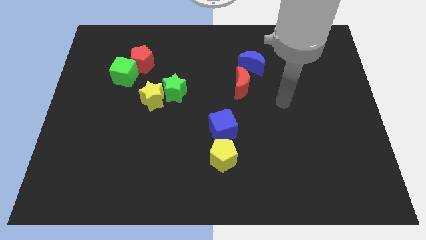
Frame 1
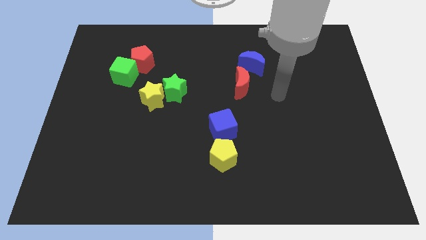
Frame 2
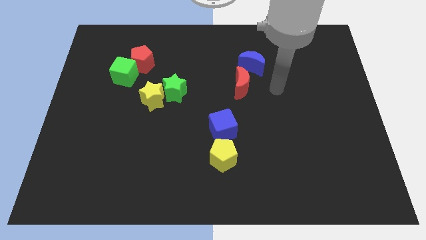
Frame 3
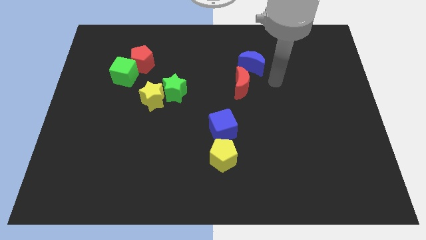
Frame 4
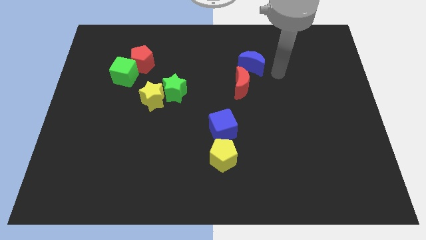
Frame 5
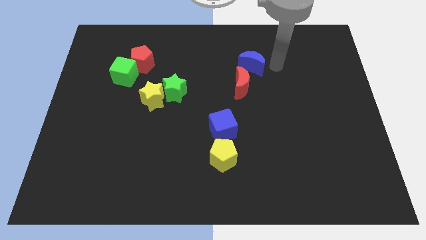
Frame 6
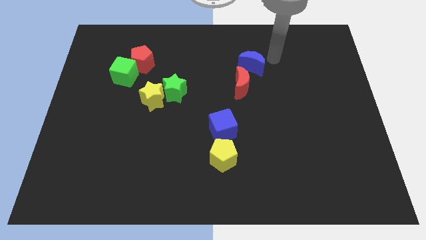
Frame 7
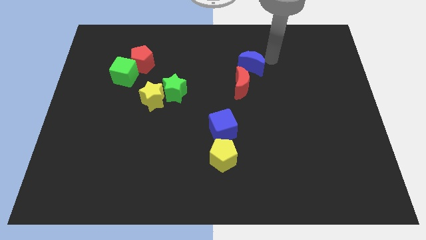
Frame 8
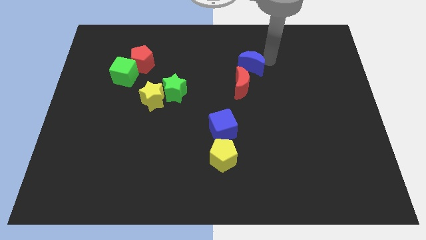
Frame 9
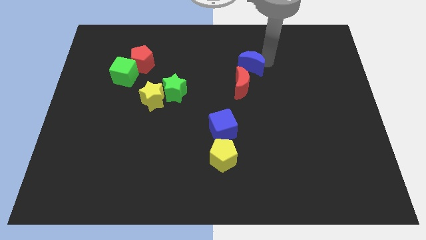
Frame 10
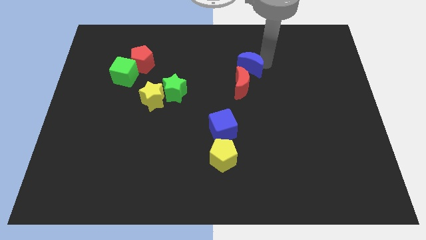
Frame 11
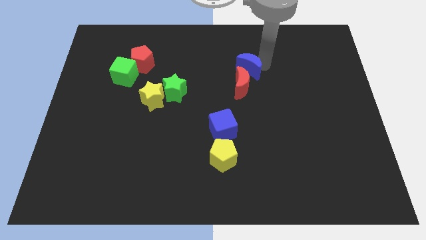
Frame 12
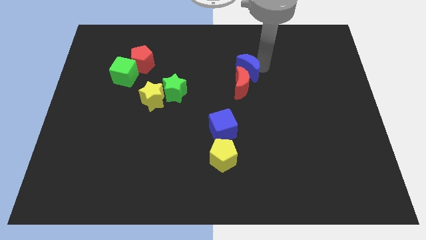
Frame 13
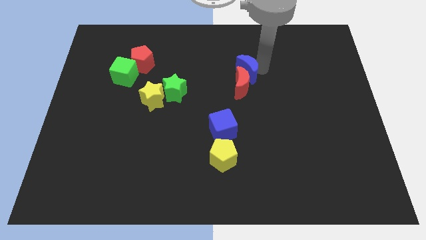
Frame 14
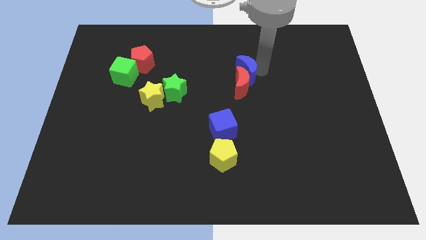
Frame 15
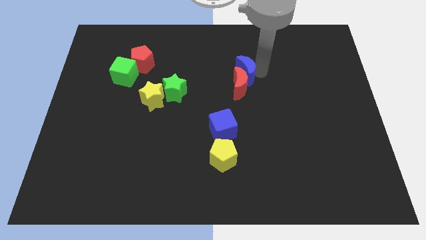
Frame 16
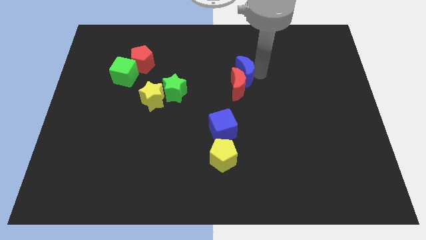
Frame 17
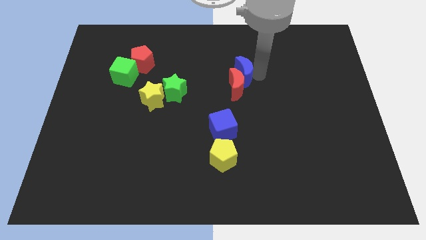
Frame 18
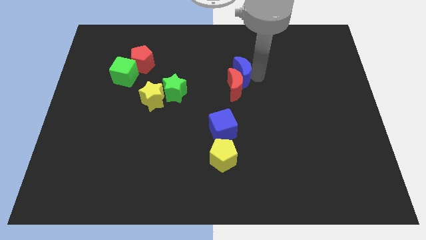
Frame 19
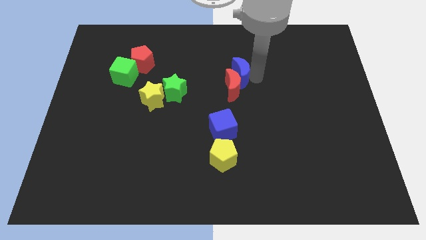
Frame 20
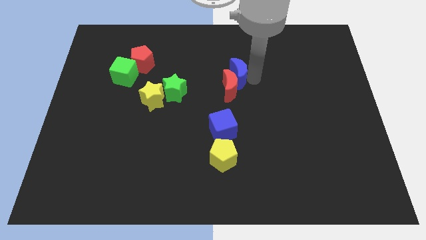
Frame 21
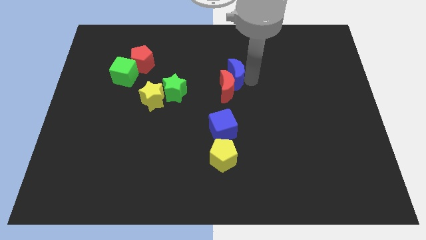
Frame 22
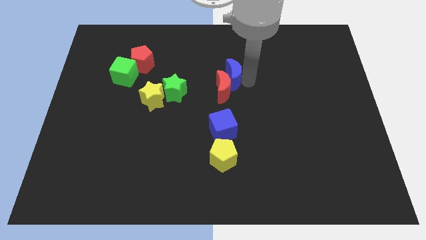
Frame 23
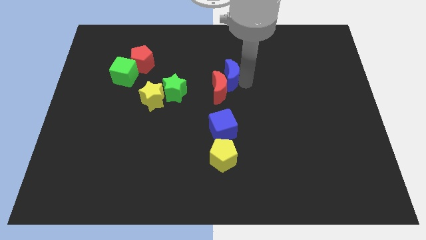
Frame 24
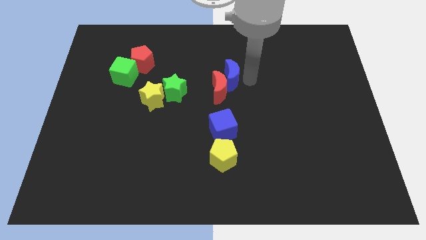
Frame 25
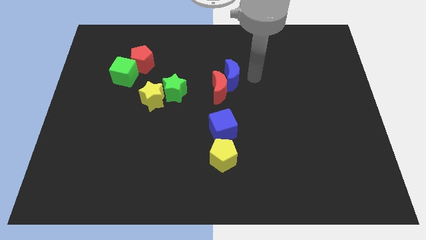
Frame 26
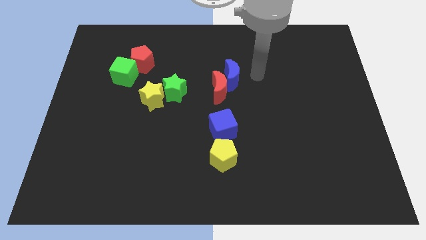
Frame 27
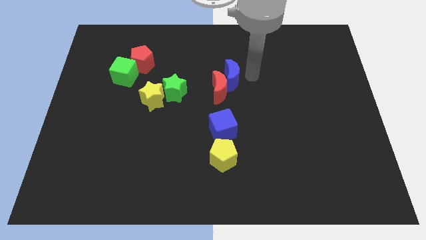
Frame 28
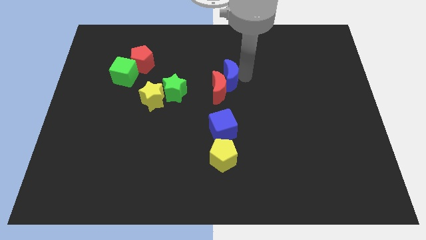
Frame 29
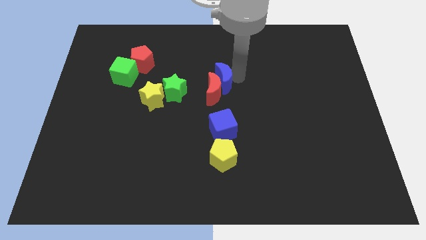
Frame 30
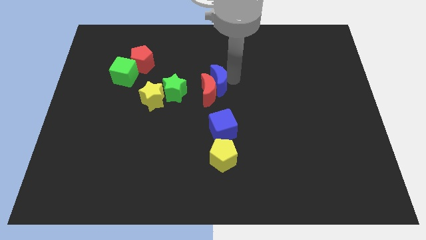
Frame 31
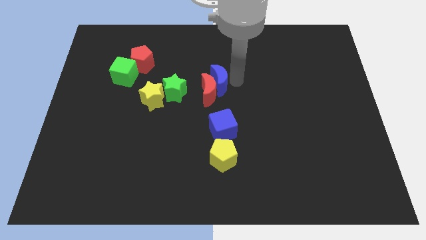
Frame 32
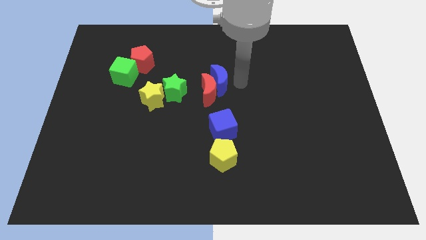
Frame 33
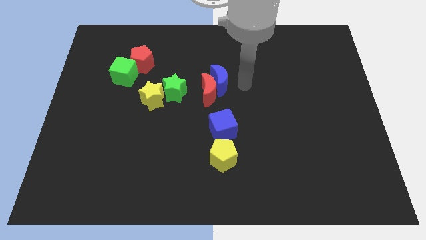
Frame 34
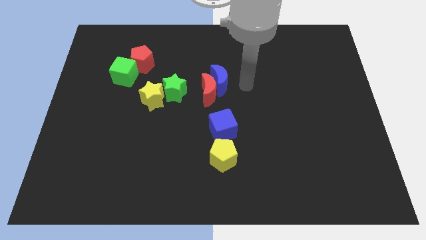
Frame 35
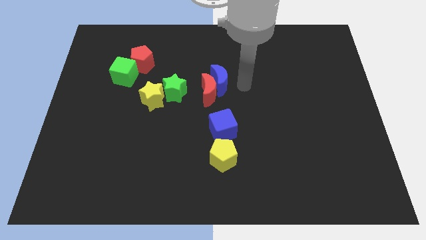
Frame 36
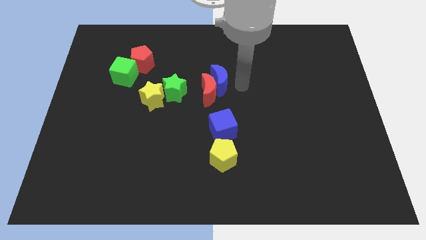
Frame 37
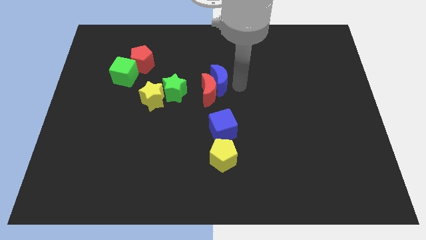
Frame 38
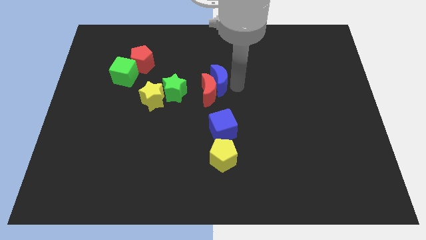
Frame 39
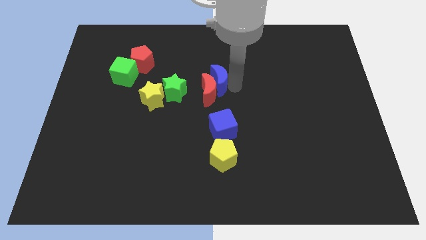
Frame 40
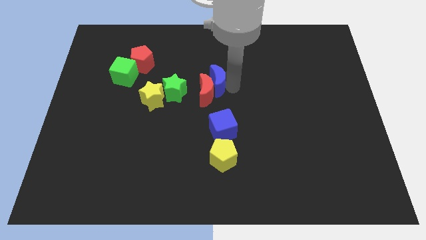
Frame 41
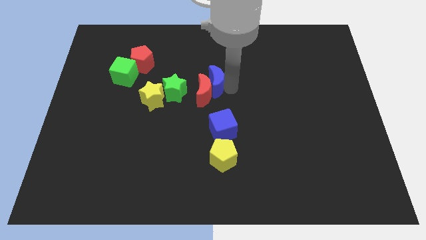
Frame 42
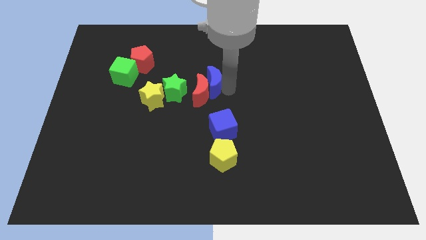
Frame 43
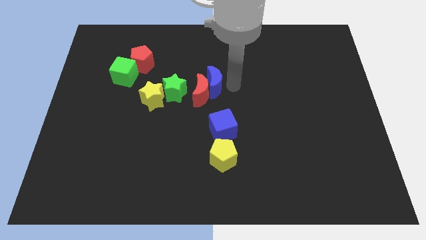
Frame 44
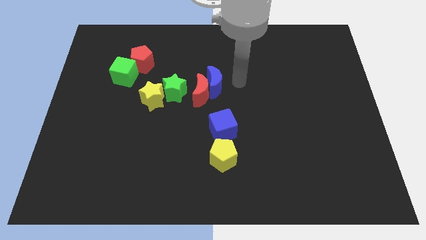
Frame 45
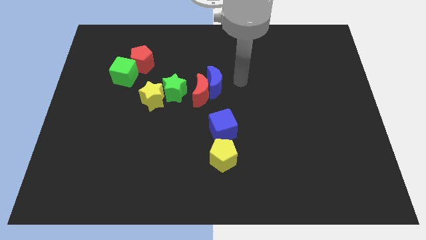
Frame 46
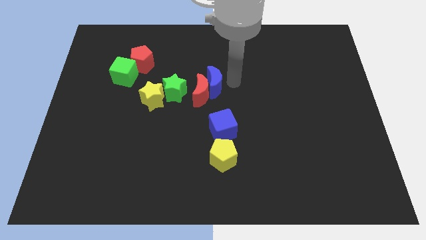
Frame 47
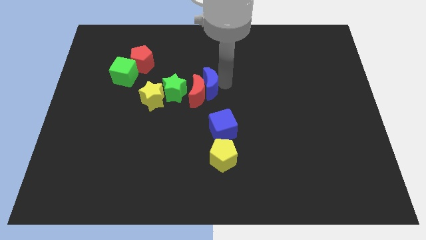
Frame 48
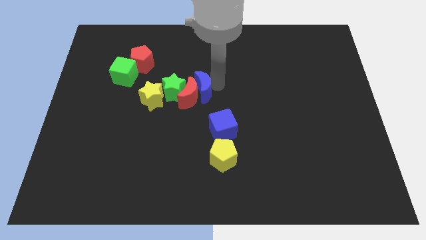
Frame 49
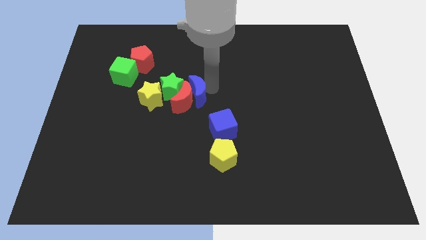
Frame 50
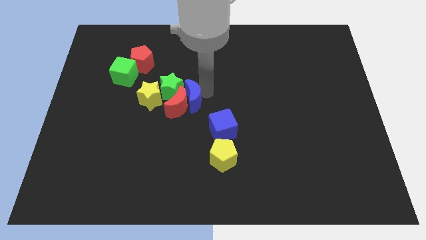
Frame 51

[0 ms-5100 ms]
move the blue moon close to the green star

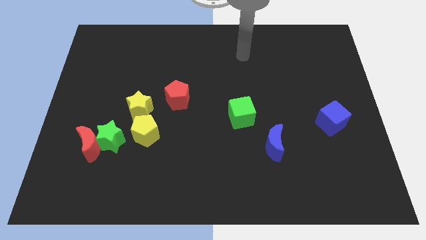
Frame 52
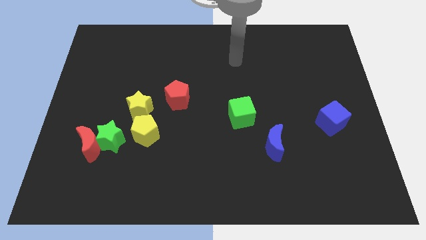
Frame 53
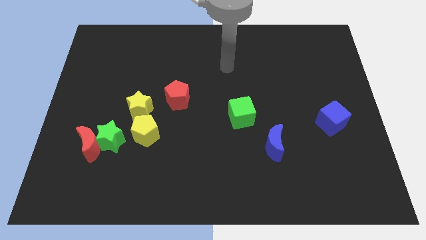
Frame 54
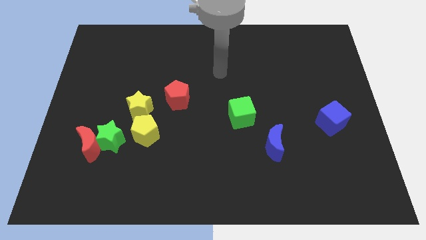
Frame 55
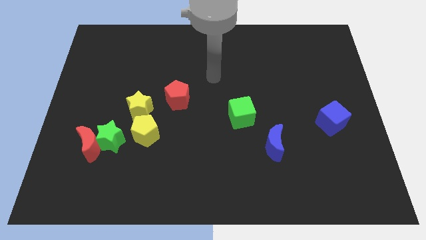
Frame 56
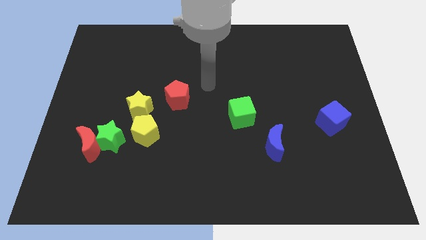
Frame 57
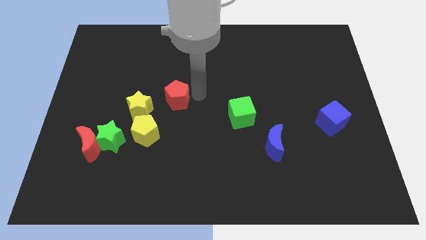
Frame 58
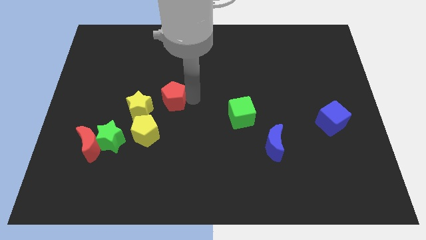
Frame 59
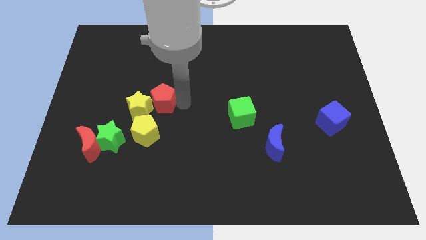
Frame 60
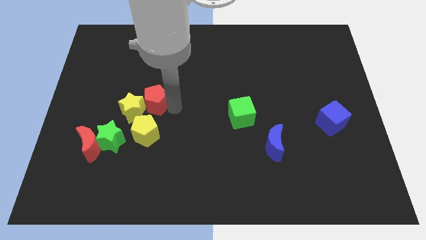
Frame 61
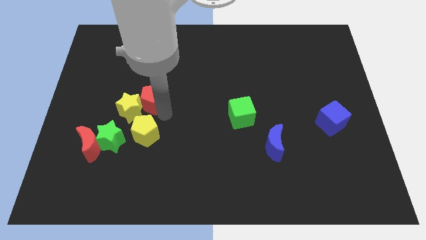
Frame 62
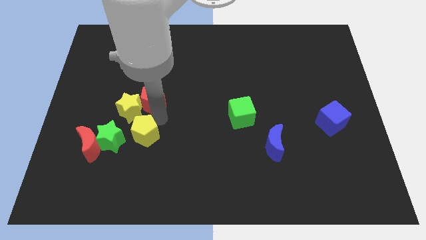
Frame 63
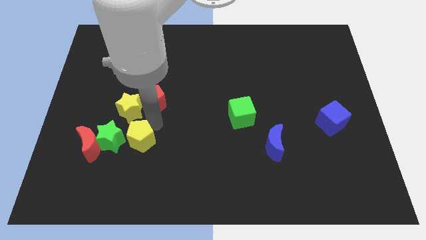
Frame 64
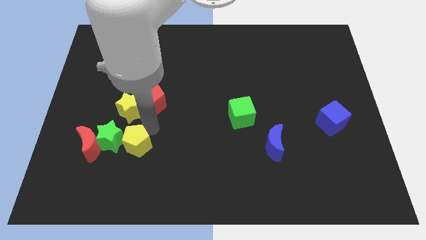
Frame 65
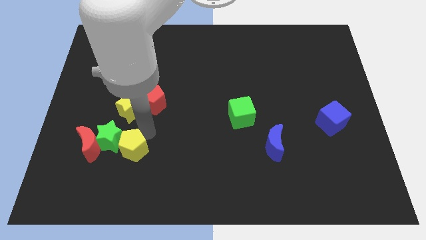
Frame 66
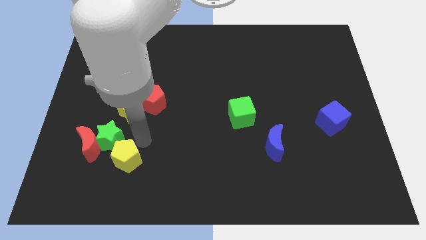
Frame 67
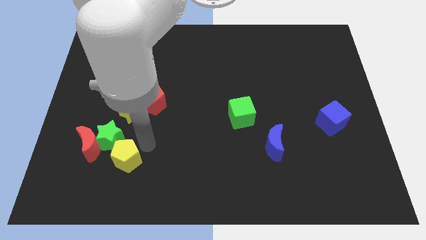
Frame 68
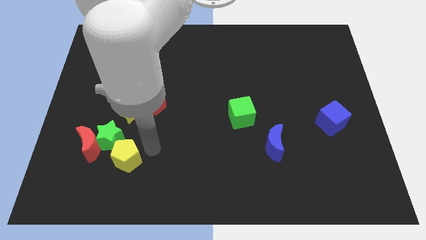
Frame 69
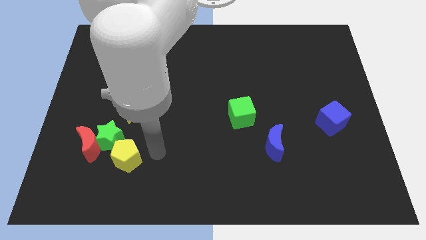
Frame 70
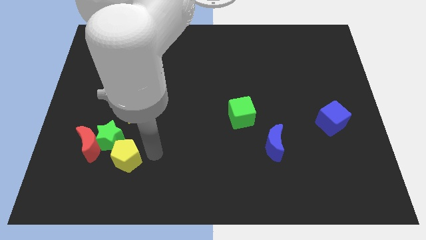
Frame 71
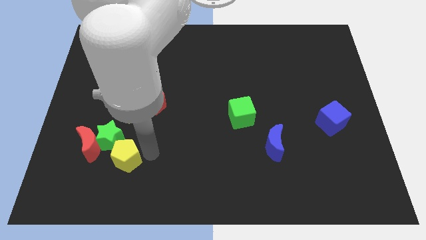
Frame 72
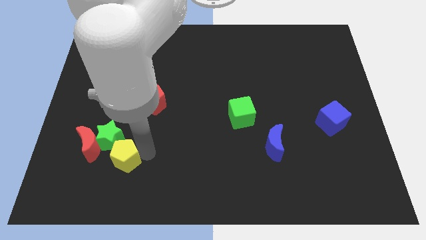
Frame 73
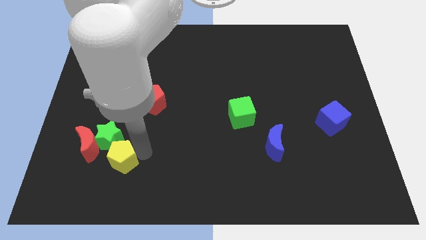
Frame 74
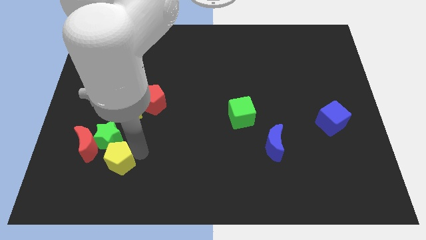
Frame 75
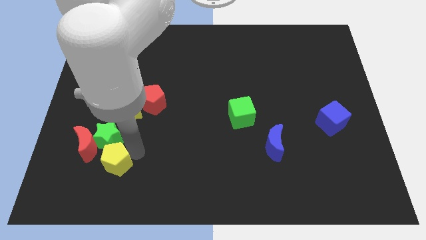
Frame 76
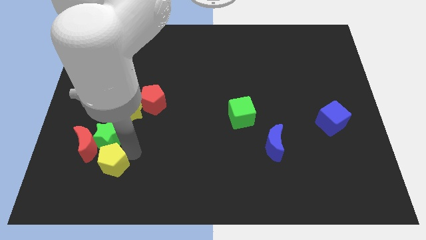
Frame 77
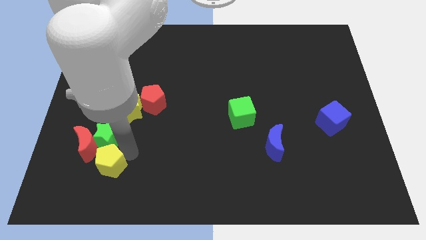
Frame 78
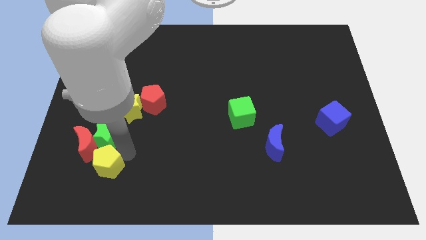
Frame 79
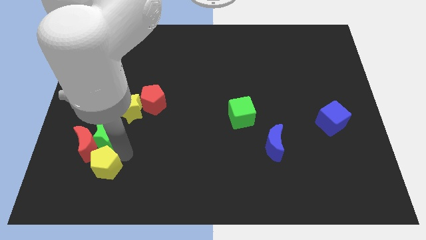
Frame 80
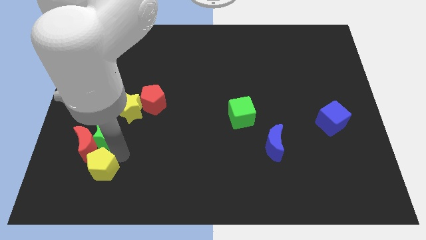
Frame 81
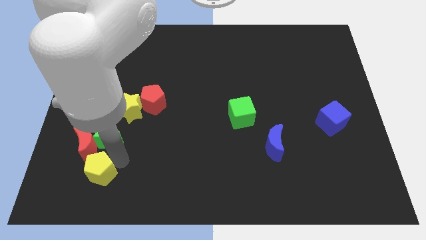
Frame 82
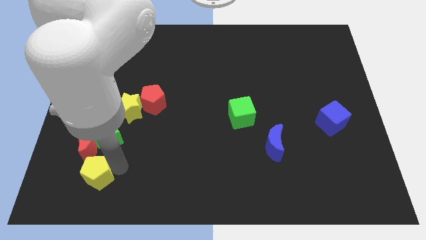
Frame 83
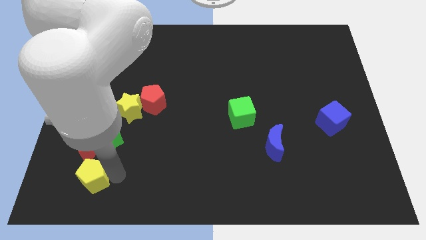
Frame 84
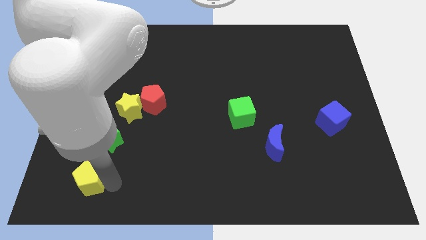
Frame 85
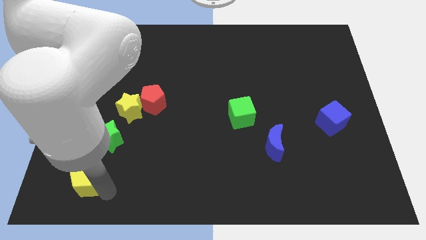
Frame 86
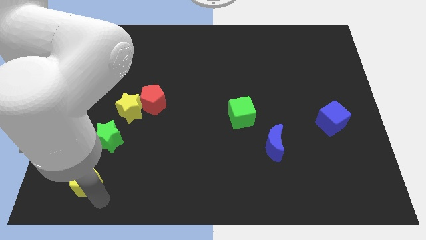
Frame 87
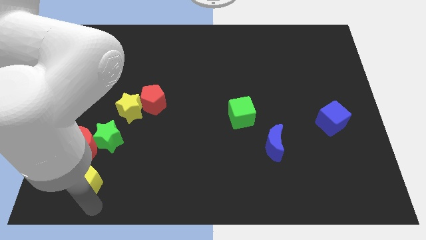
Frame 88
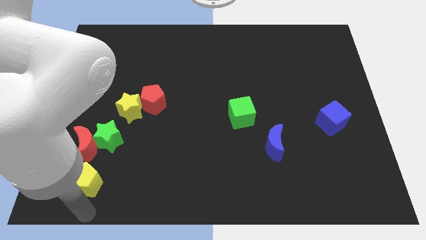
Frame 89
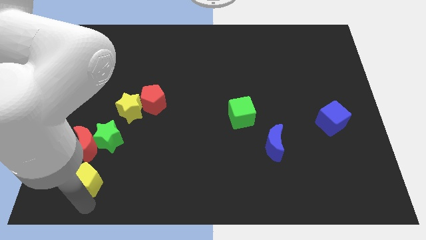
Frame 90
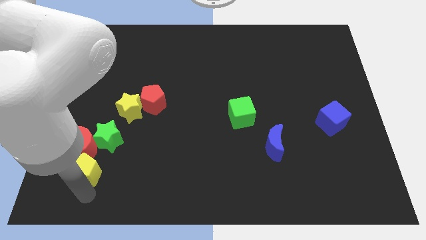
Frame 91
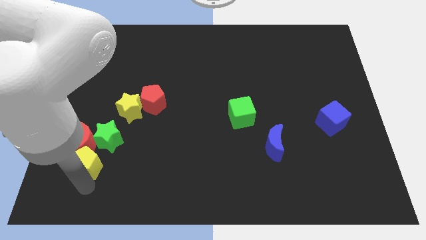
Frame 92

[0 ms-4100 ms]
put the yellow pentagon next to the red moon
